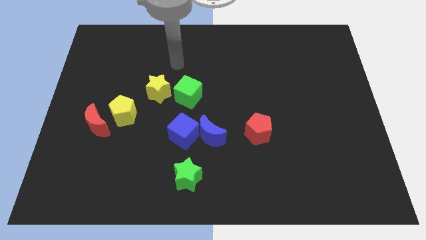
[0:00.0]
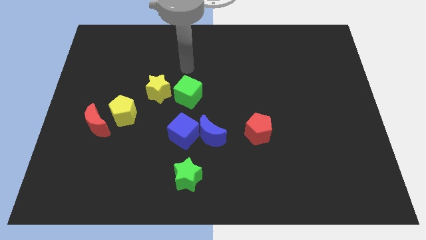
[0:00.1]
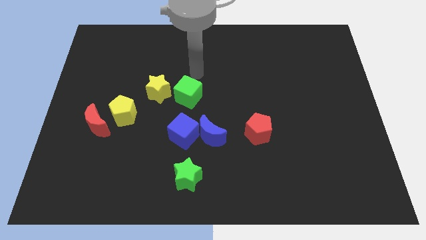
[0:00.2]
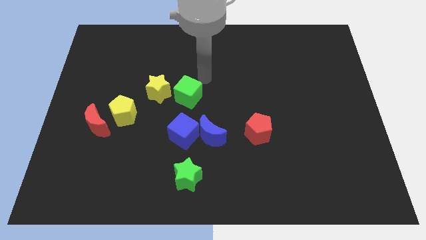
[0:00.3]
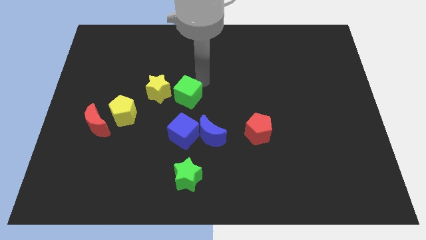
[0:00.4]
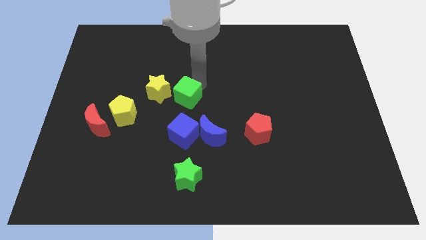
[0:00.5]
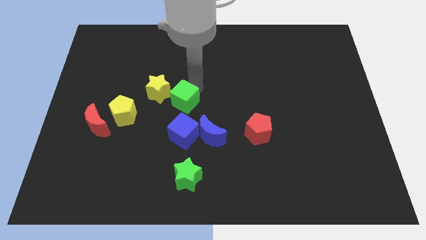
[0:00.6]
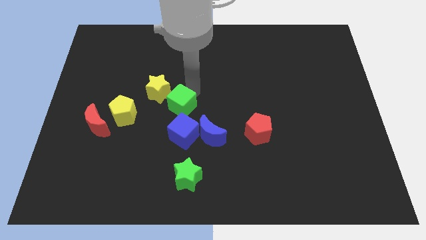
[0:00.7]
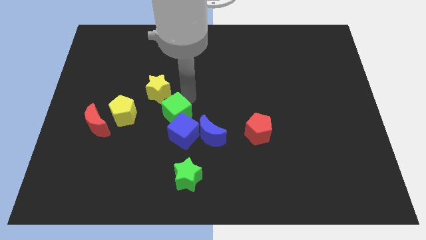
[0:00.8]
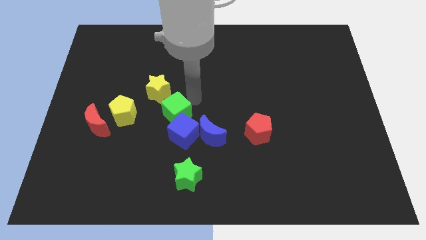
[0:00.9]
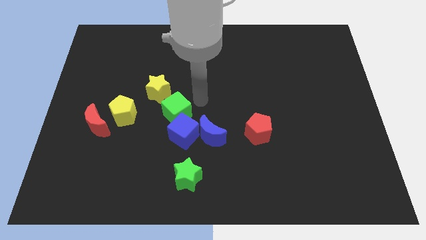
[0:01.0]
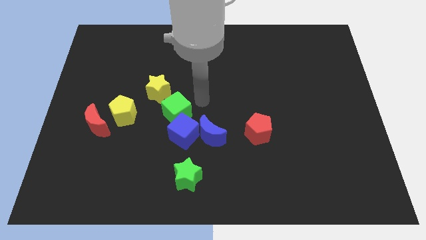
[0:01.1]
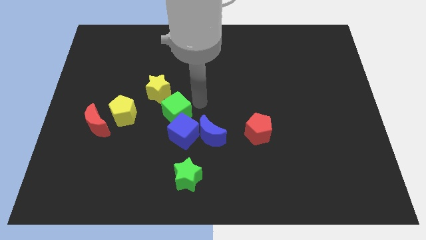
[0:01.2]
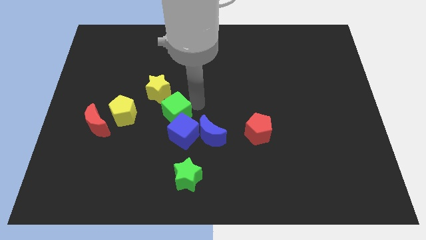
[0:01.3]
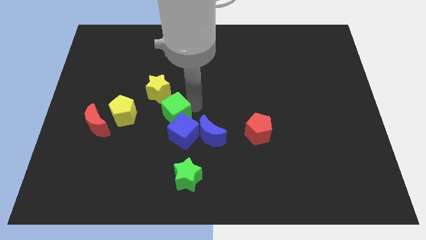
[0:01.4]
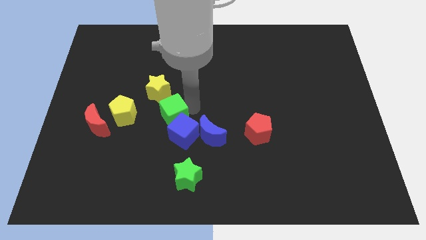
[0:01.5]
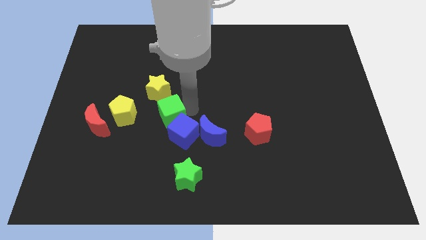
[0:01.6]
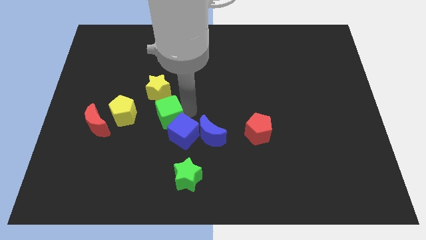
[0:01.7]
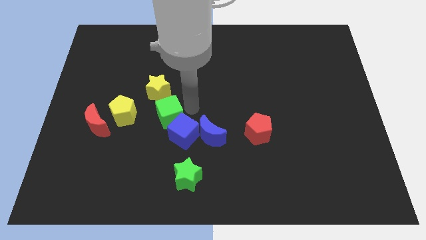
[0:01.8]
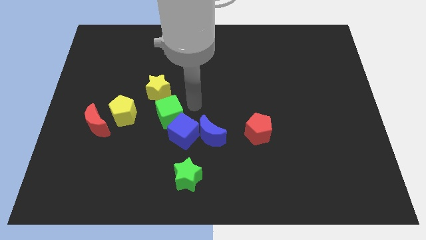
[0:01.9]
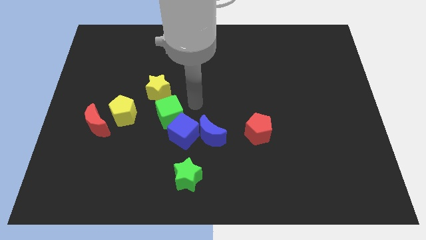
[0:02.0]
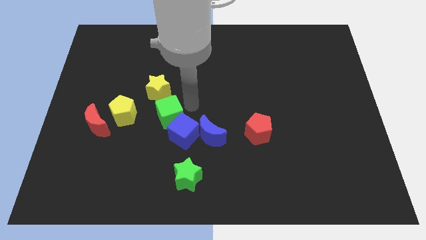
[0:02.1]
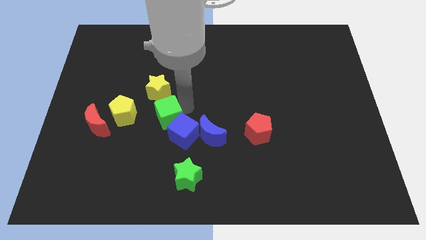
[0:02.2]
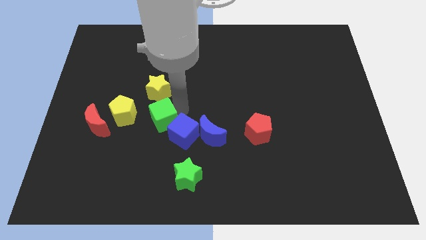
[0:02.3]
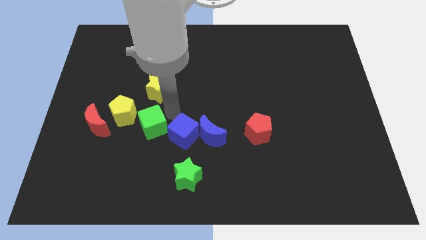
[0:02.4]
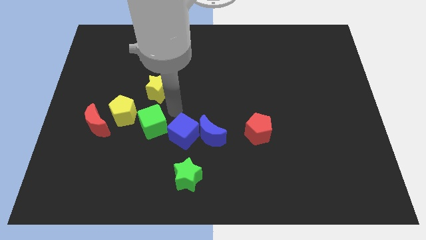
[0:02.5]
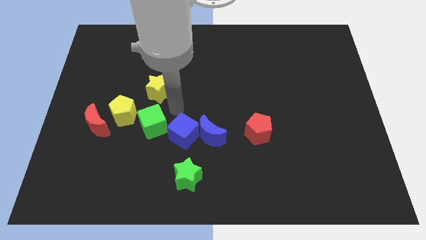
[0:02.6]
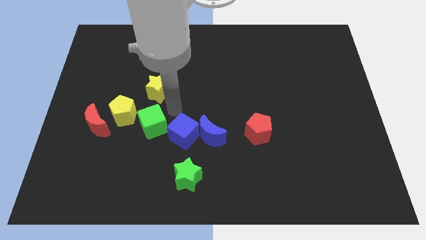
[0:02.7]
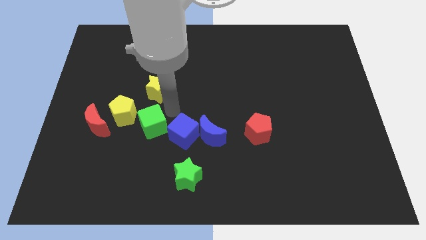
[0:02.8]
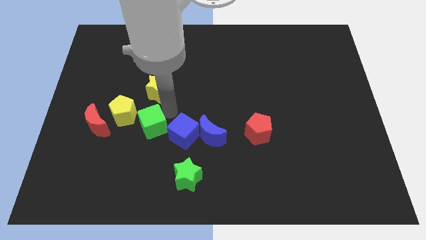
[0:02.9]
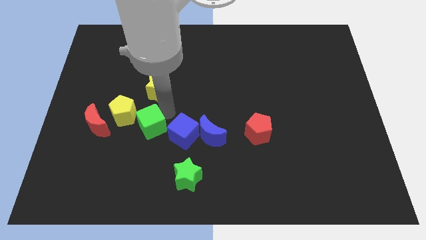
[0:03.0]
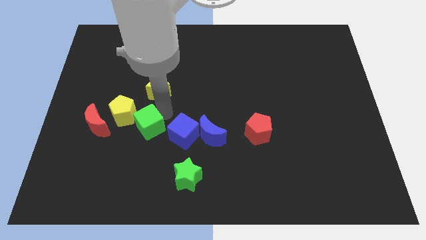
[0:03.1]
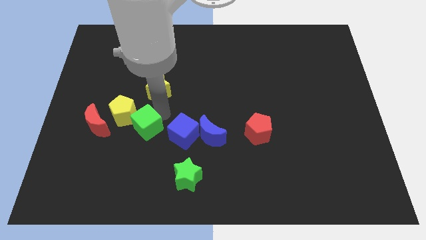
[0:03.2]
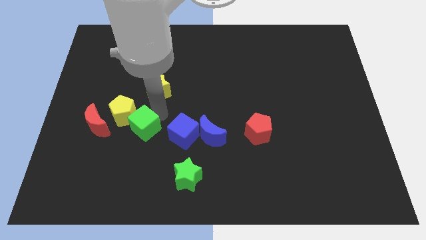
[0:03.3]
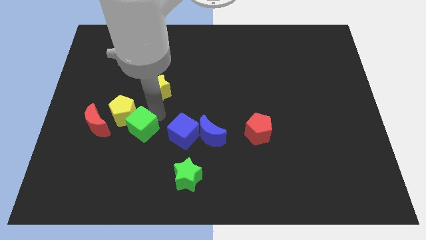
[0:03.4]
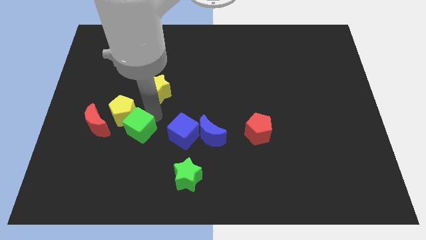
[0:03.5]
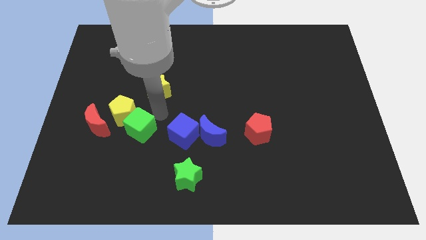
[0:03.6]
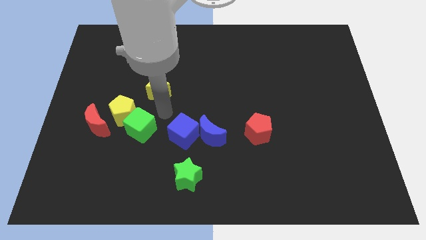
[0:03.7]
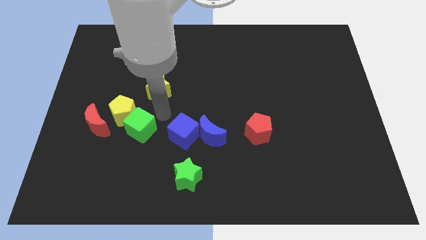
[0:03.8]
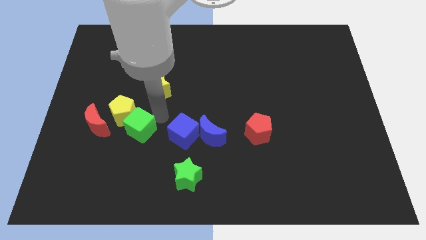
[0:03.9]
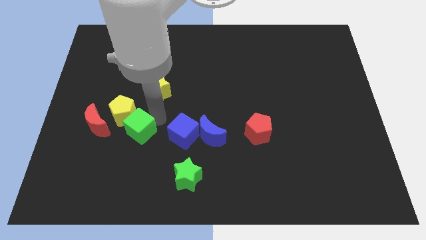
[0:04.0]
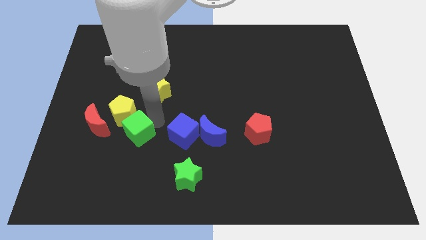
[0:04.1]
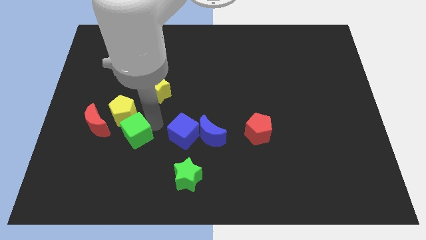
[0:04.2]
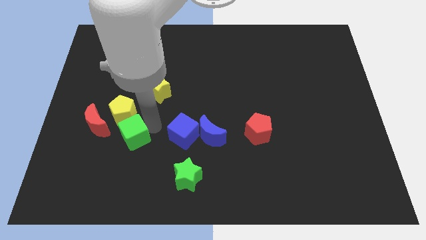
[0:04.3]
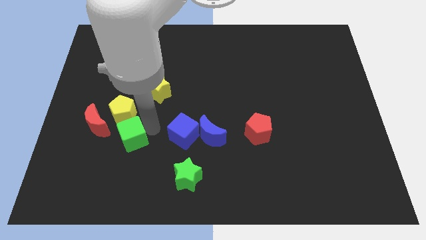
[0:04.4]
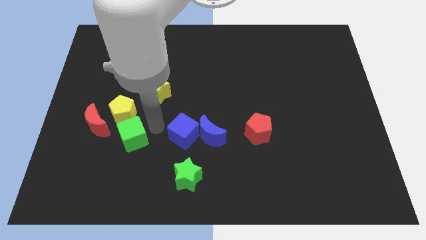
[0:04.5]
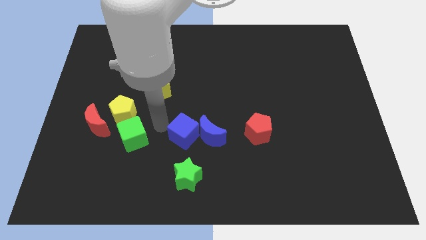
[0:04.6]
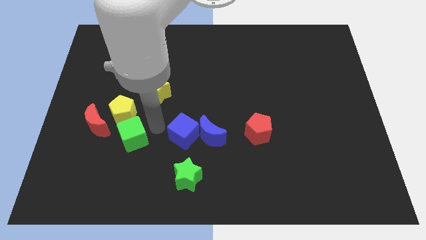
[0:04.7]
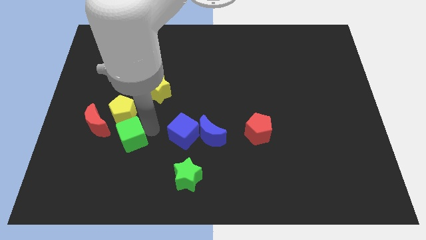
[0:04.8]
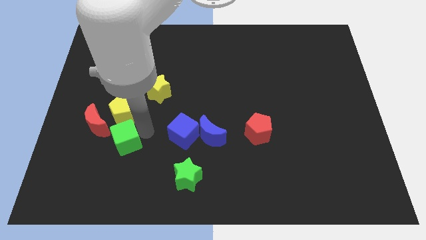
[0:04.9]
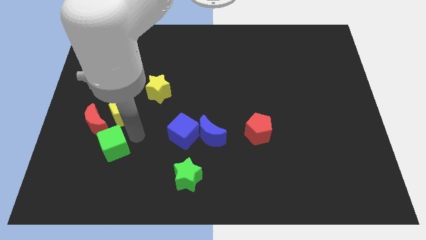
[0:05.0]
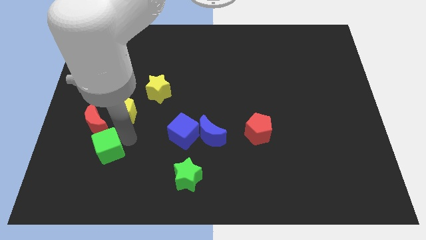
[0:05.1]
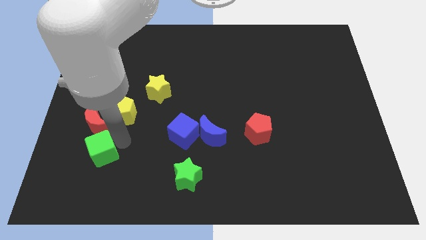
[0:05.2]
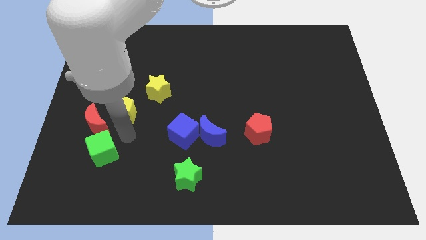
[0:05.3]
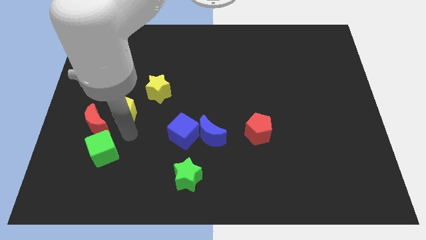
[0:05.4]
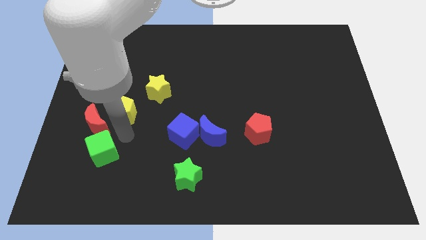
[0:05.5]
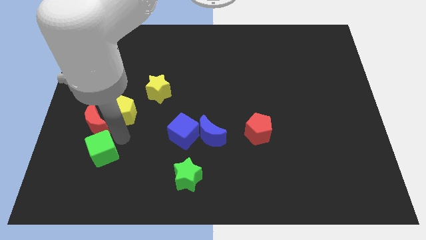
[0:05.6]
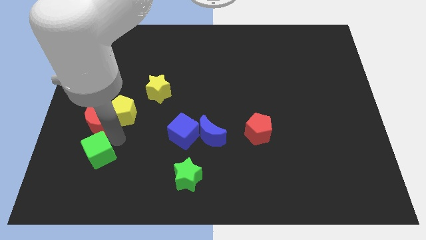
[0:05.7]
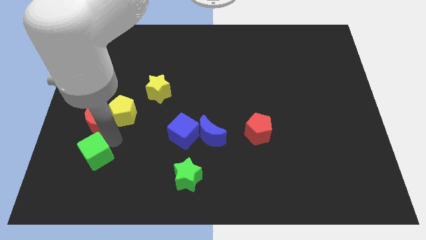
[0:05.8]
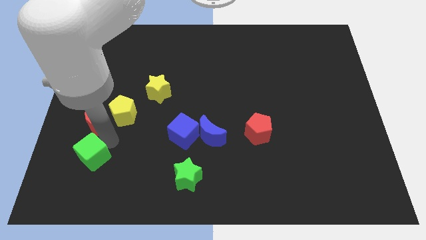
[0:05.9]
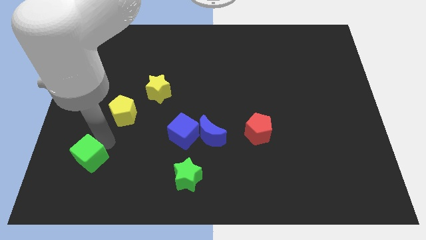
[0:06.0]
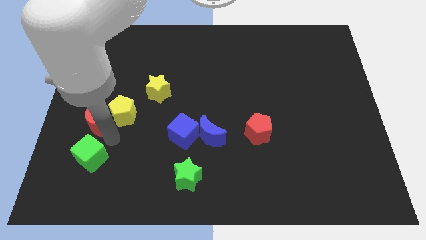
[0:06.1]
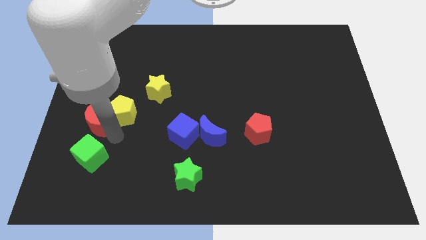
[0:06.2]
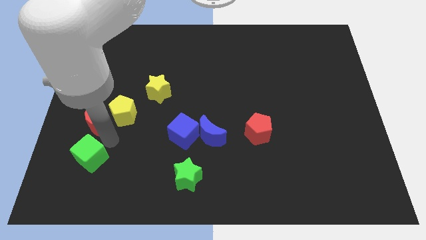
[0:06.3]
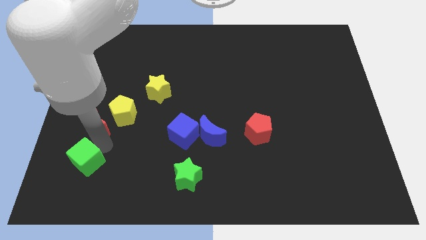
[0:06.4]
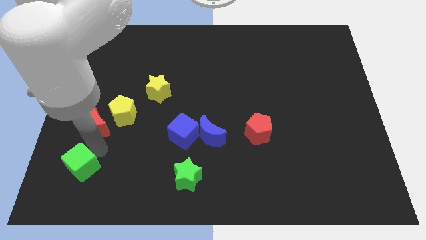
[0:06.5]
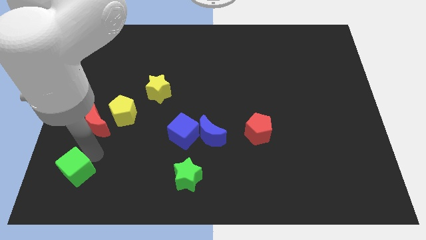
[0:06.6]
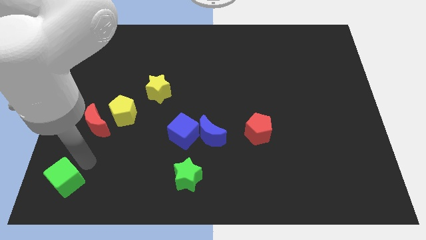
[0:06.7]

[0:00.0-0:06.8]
move the green cube to the bottom left corner
